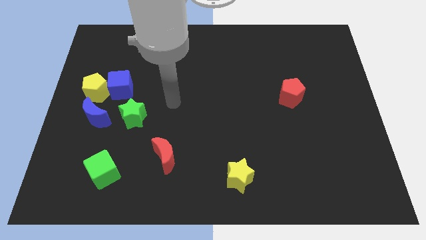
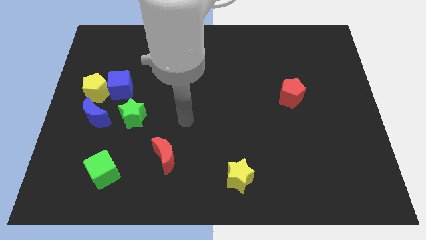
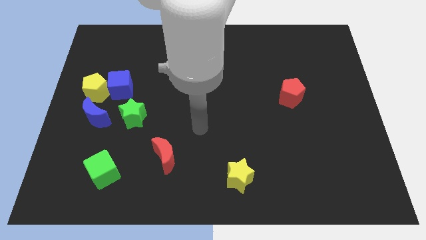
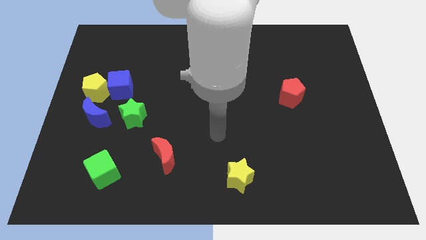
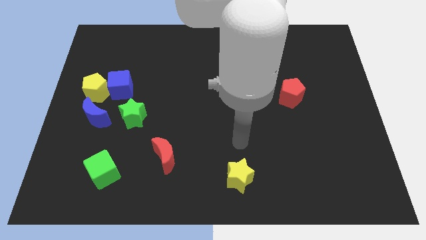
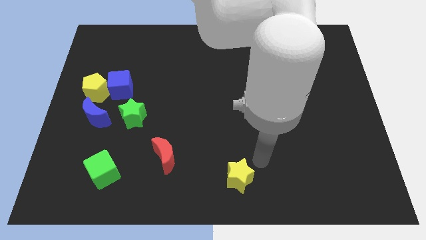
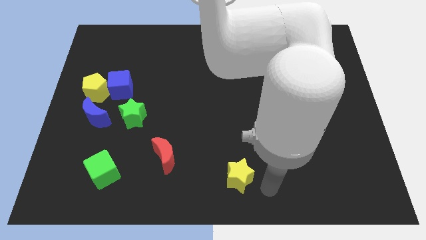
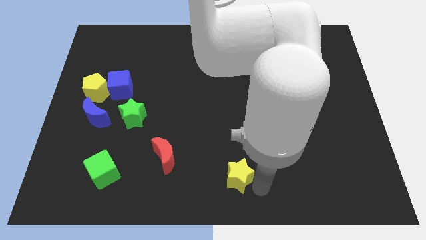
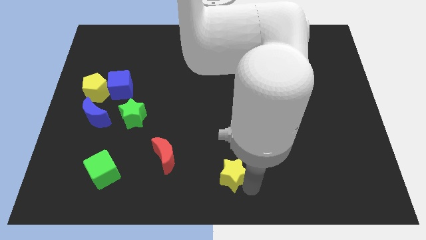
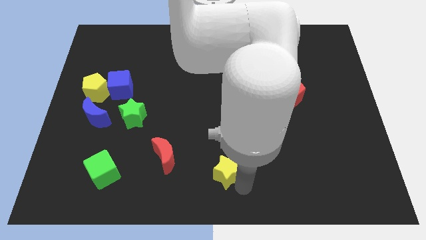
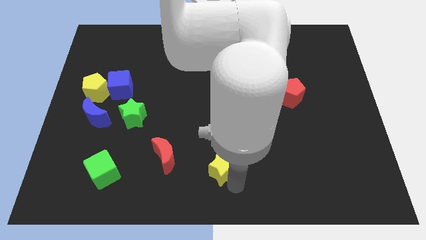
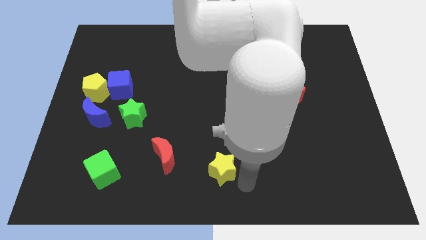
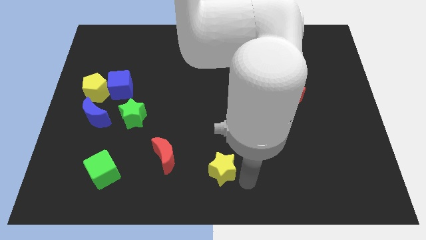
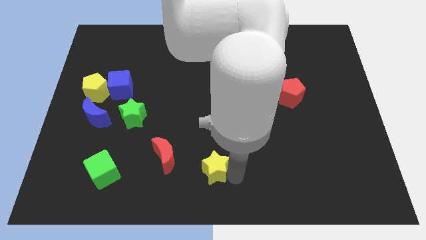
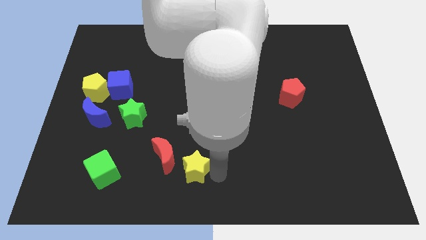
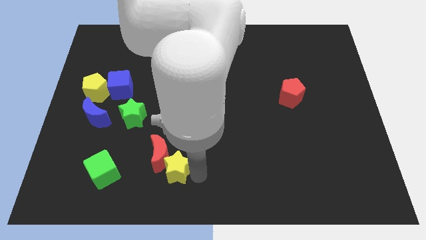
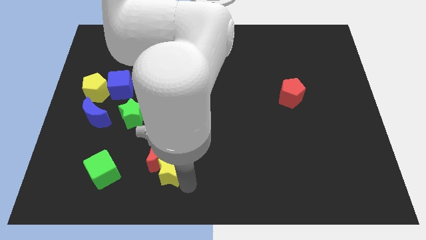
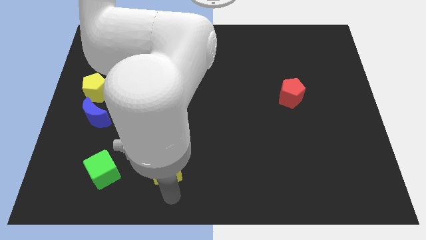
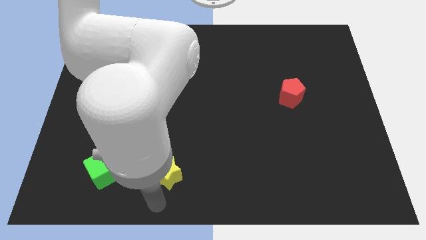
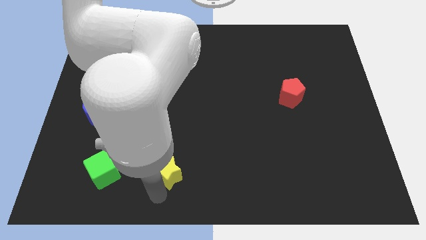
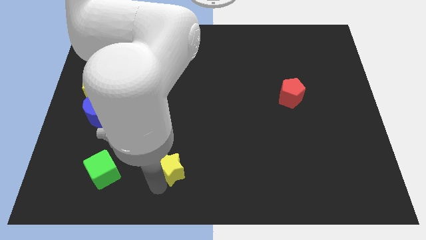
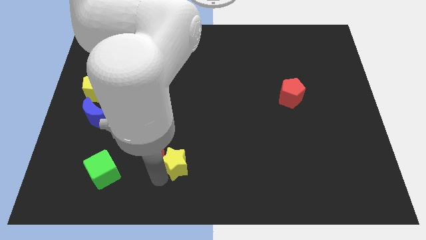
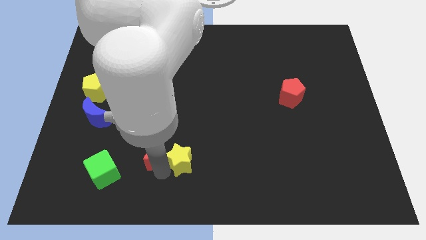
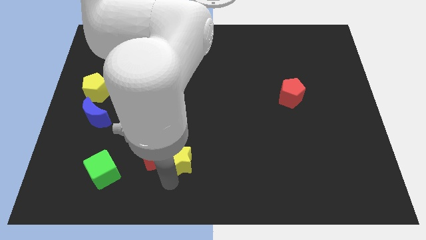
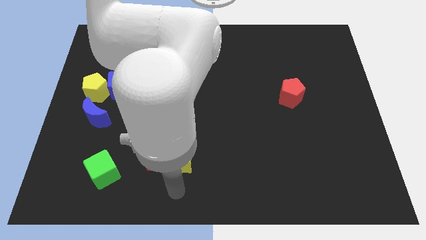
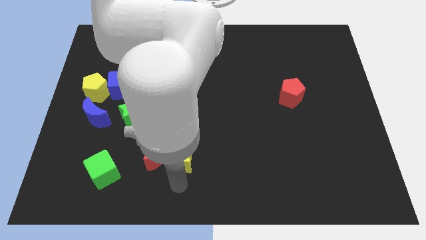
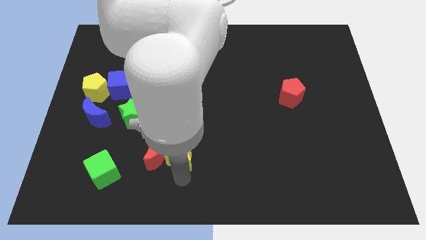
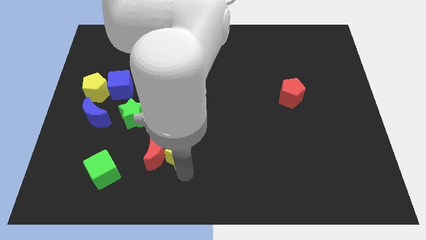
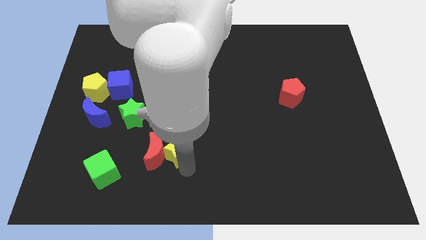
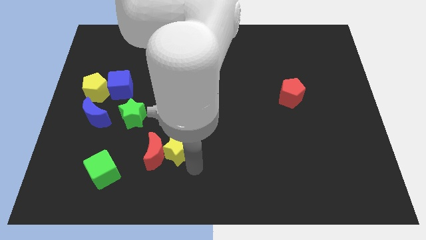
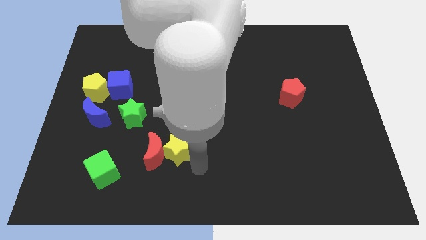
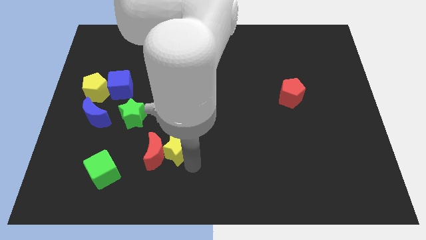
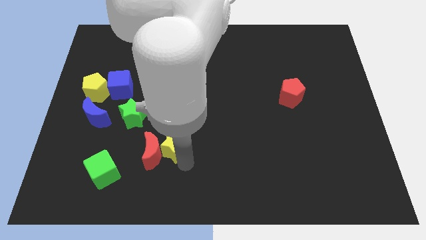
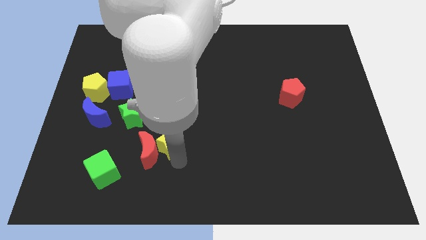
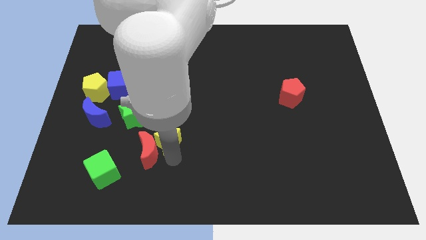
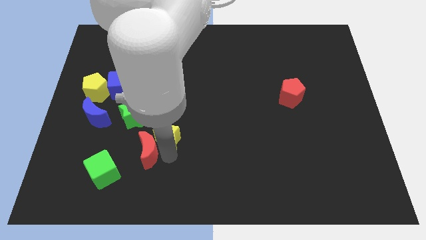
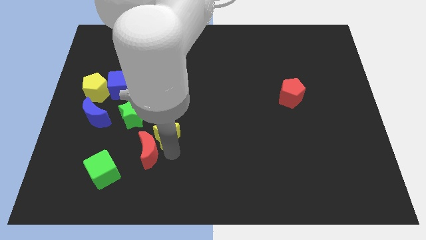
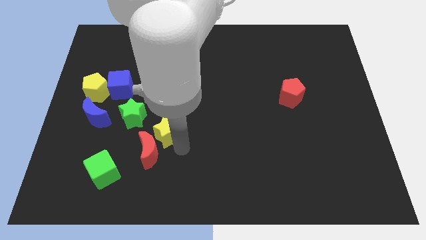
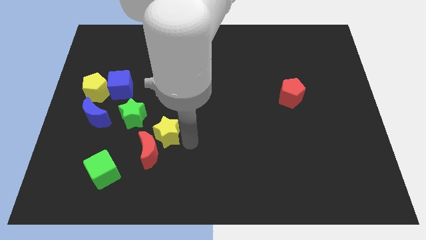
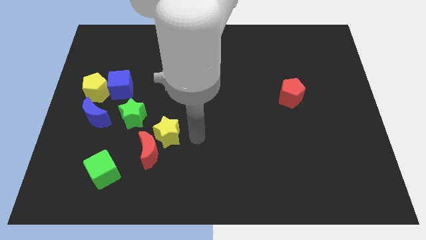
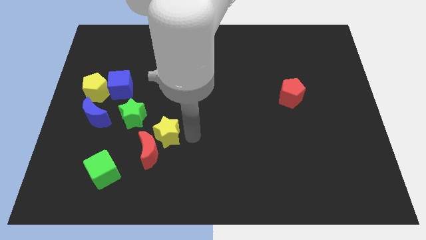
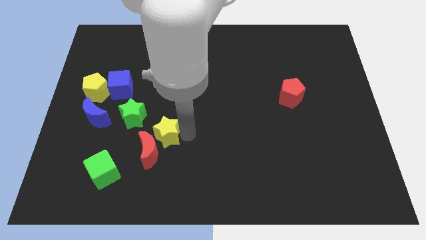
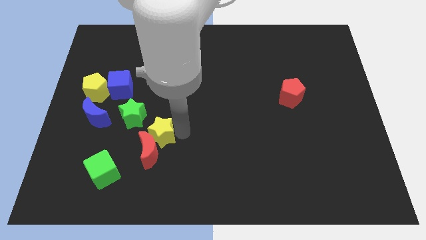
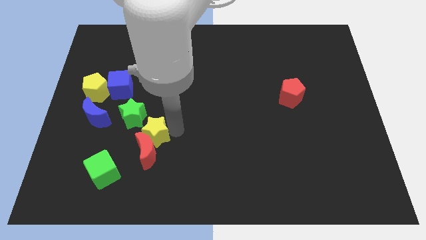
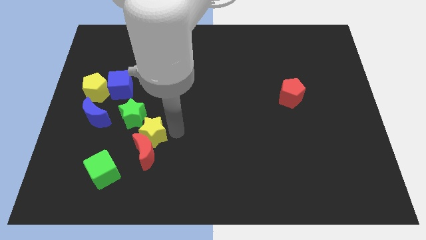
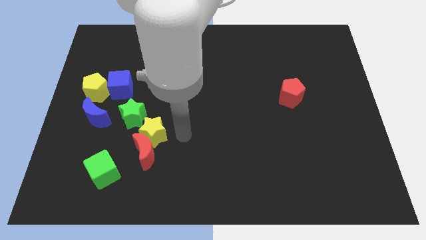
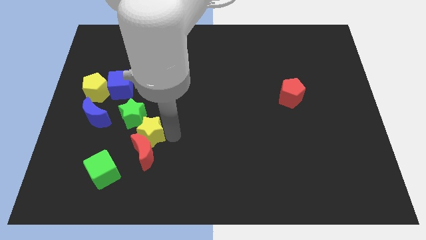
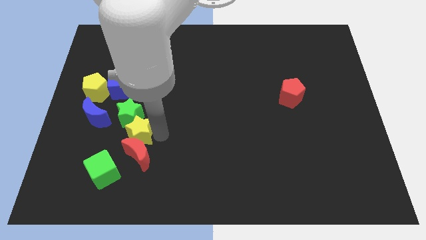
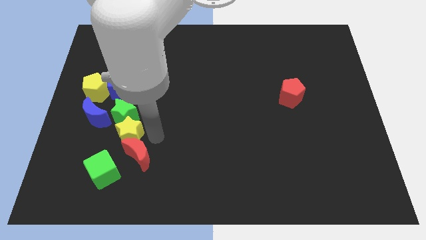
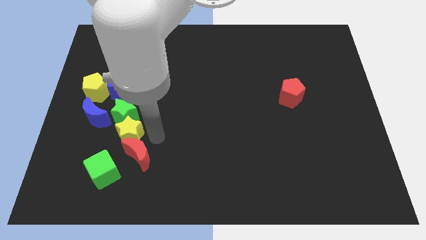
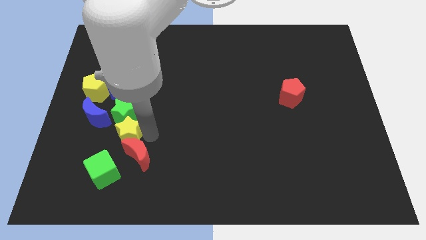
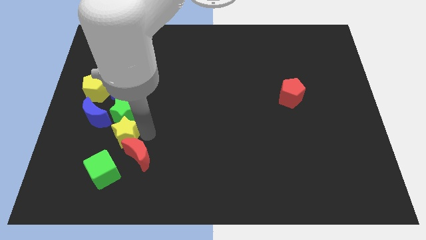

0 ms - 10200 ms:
put the yellow star to the bottom left side of the green star

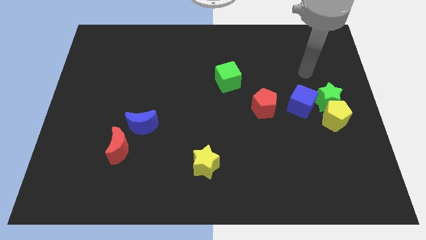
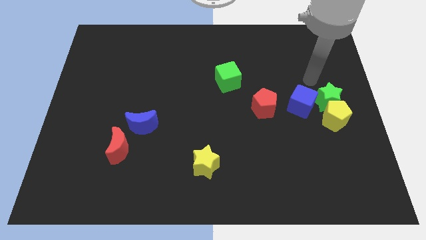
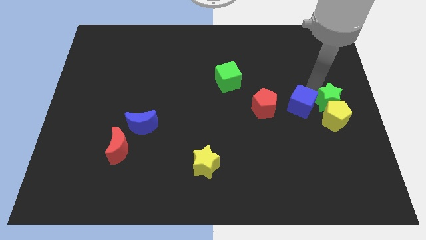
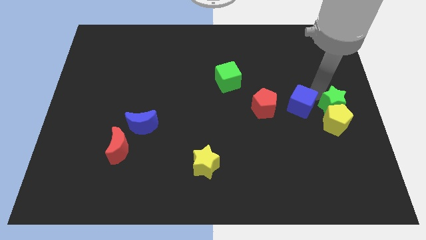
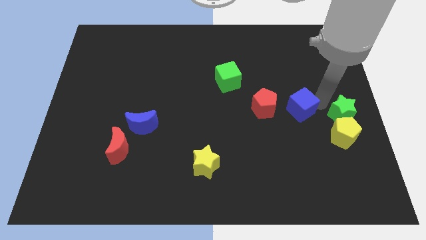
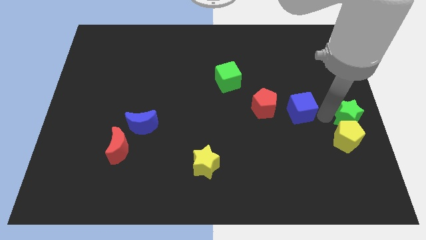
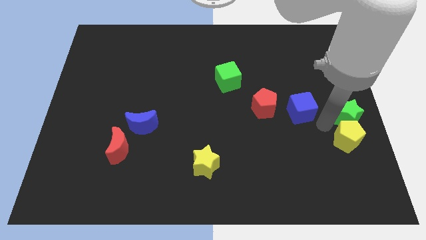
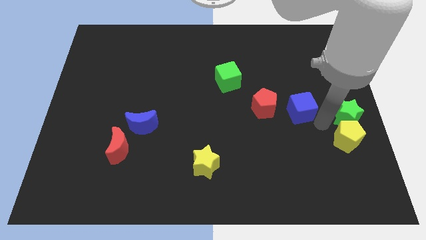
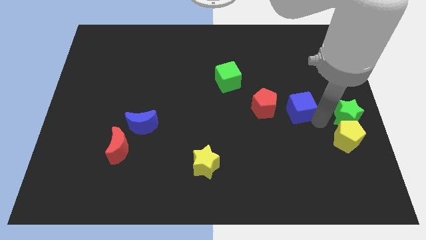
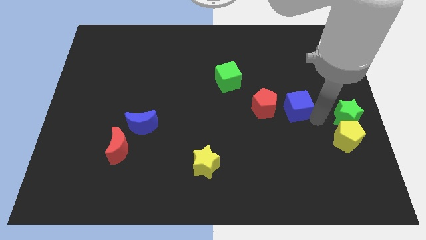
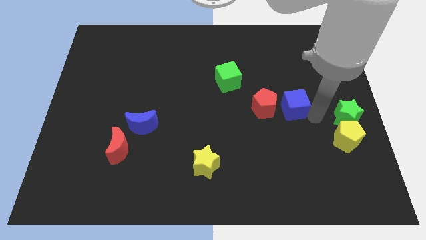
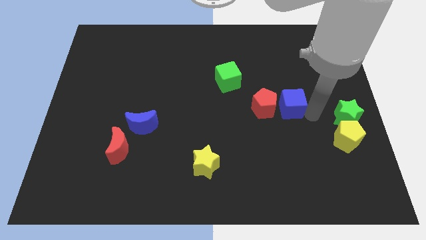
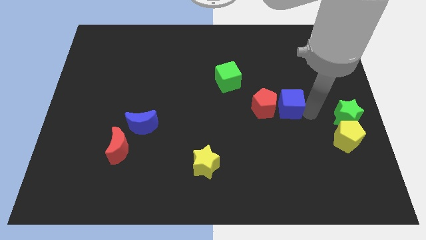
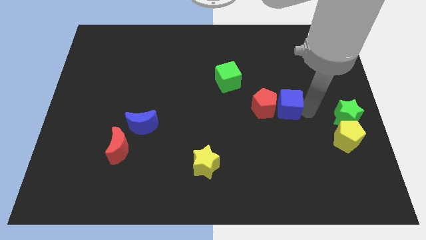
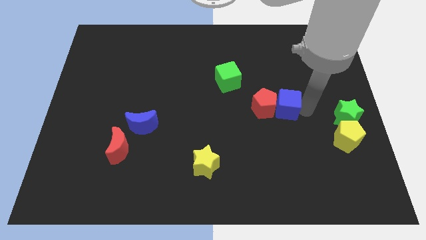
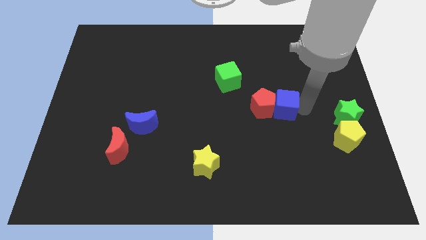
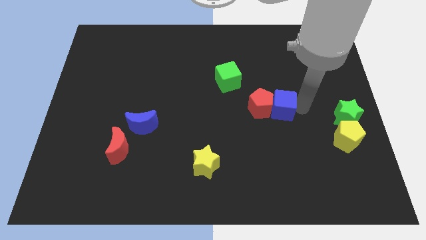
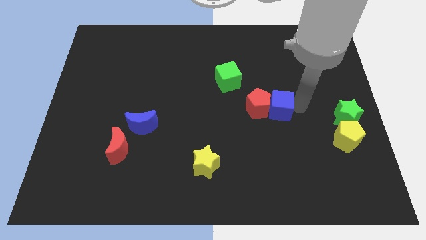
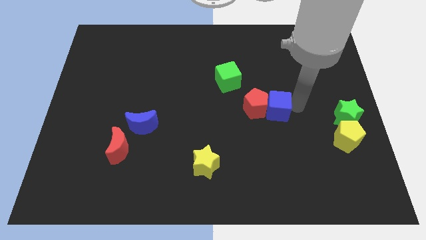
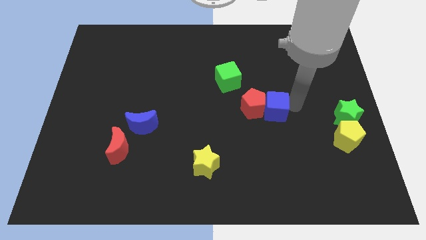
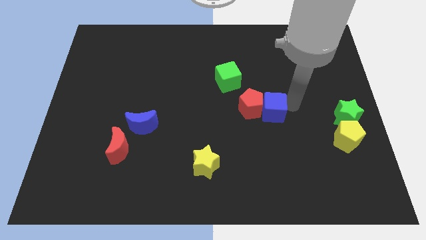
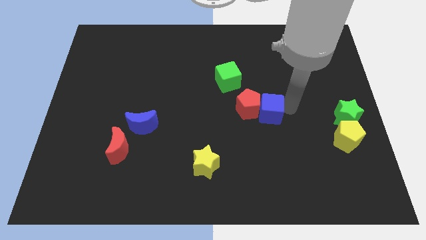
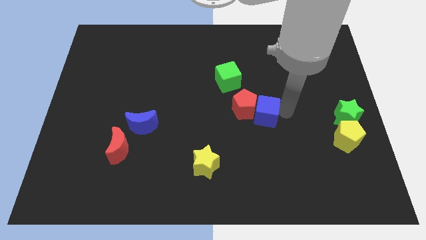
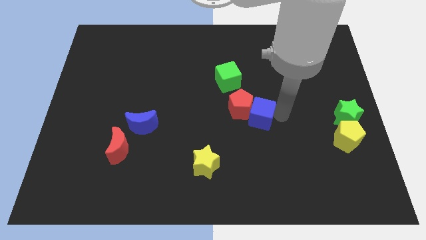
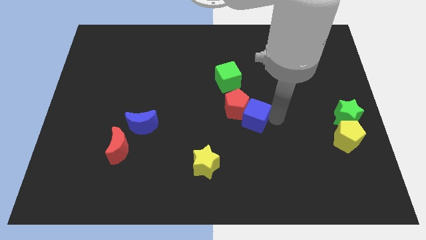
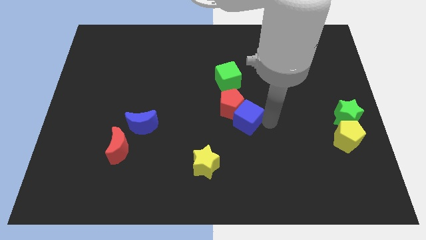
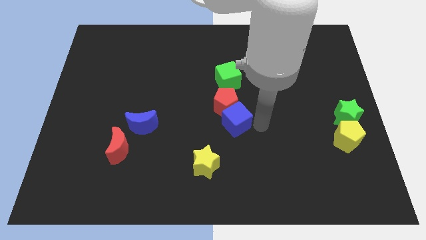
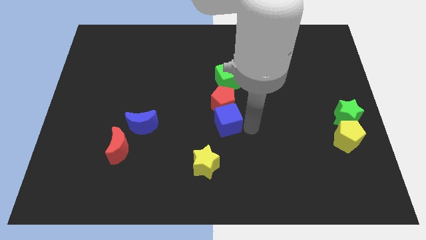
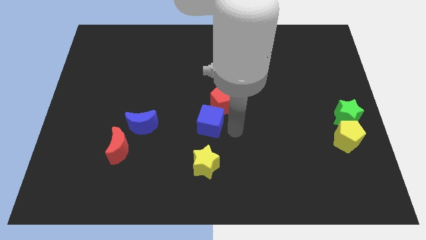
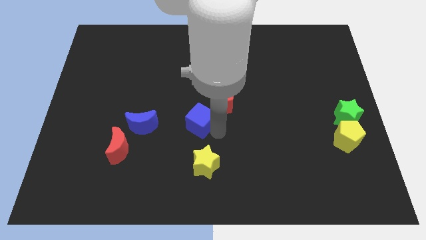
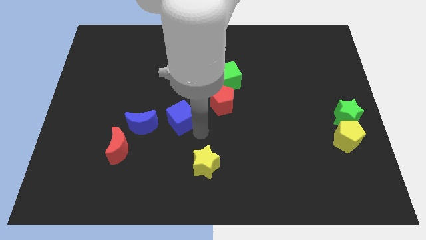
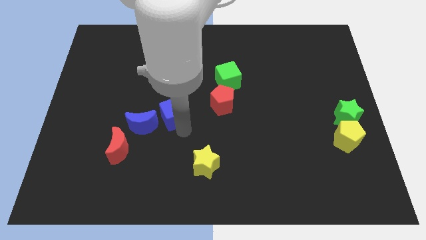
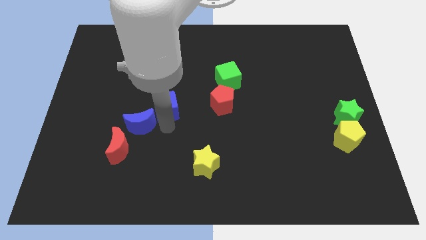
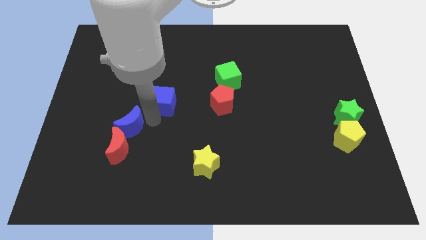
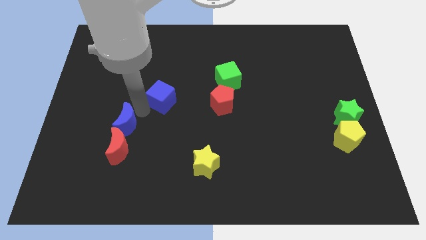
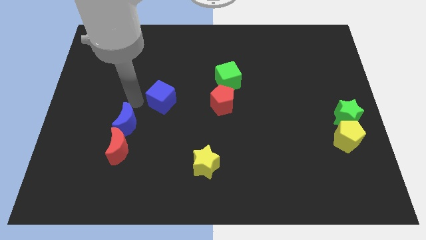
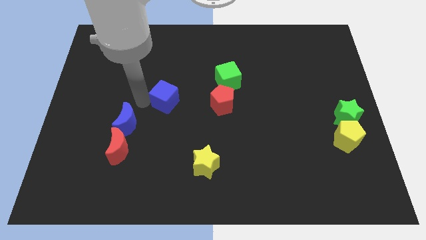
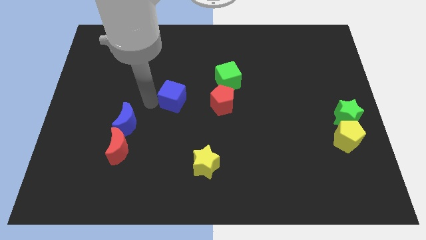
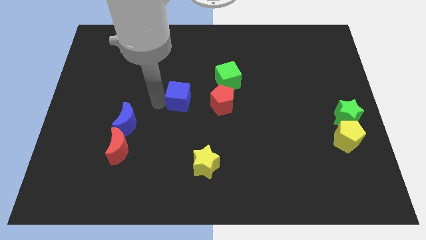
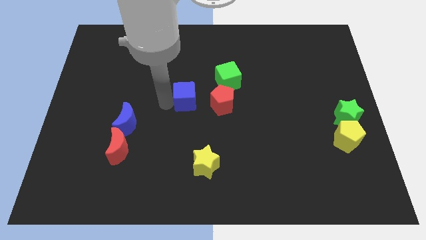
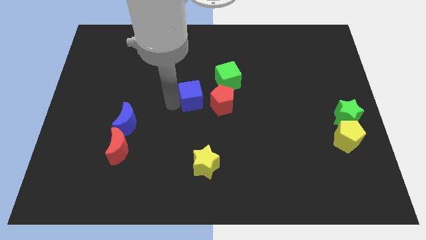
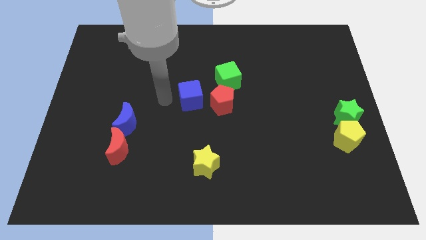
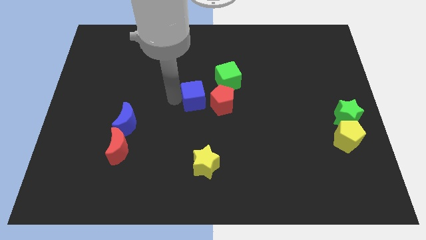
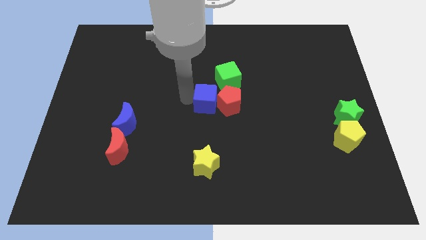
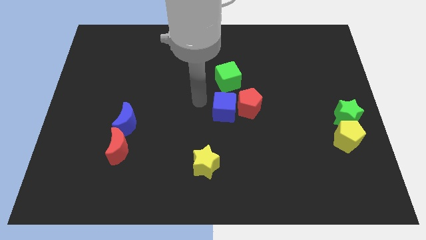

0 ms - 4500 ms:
push the blue cube to the top left of the red pentagon
